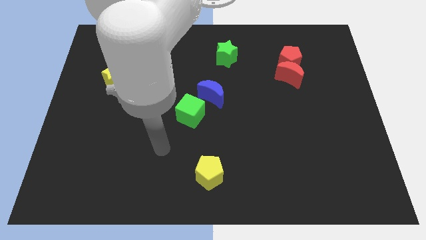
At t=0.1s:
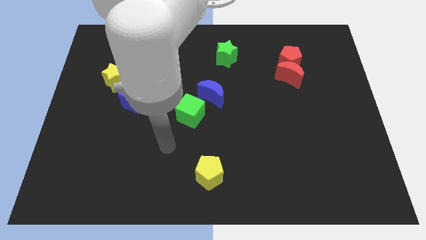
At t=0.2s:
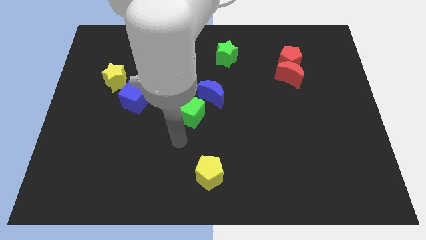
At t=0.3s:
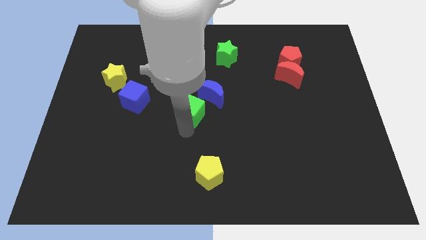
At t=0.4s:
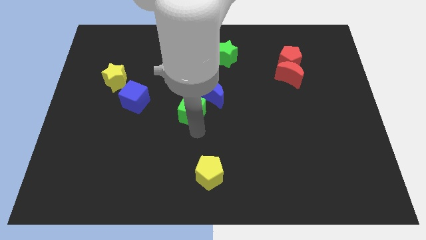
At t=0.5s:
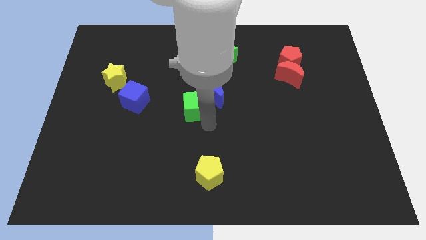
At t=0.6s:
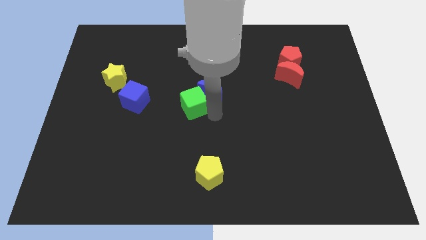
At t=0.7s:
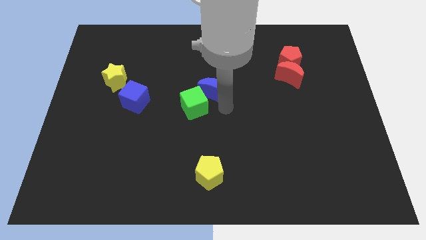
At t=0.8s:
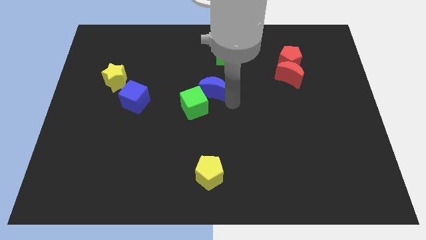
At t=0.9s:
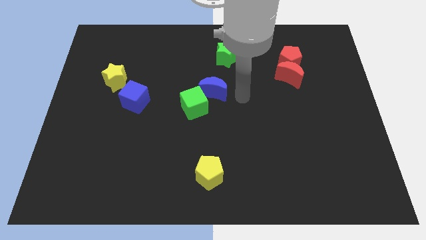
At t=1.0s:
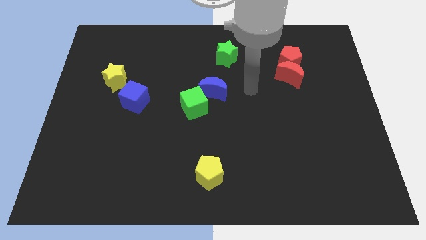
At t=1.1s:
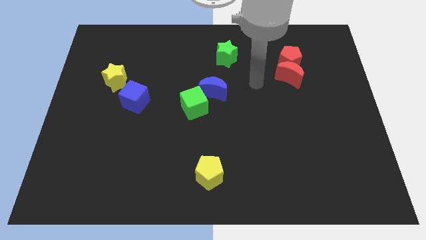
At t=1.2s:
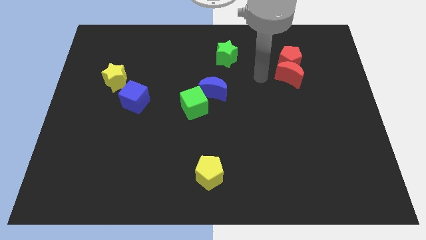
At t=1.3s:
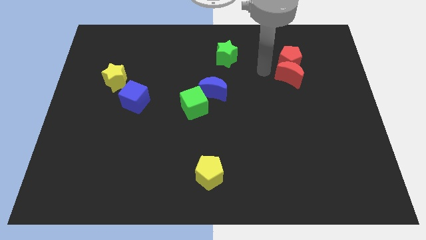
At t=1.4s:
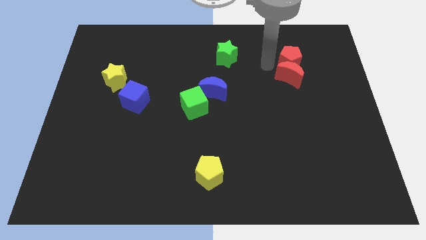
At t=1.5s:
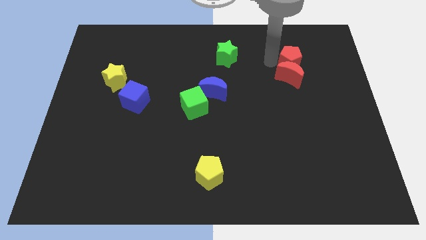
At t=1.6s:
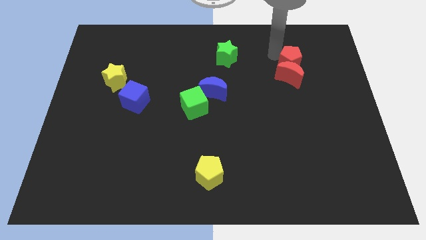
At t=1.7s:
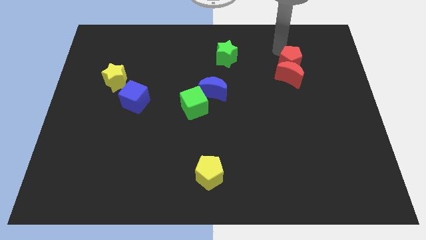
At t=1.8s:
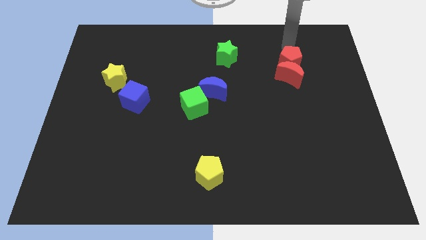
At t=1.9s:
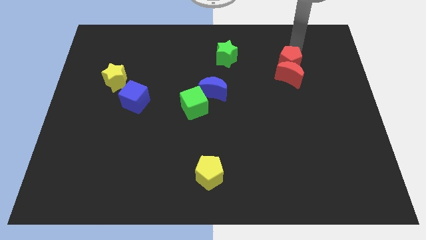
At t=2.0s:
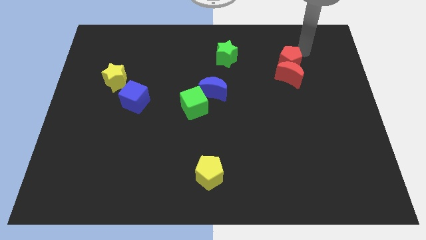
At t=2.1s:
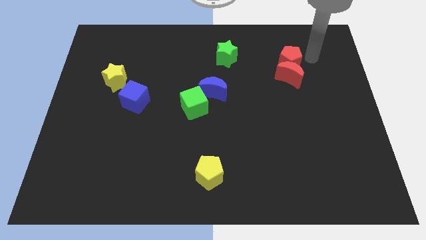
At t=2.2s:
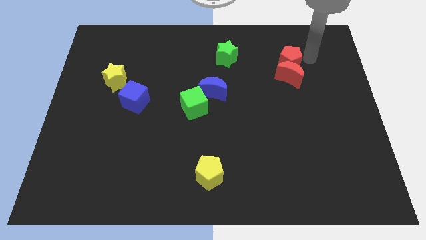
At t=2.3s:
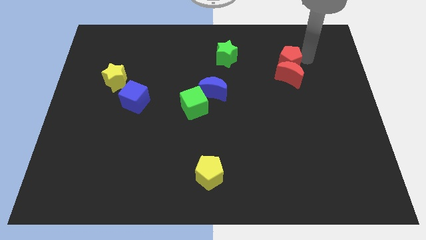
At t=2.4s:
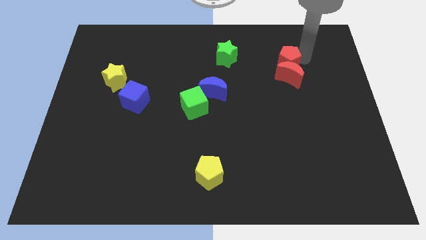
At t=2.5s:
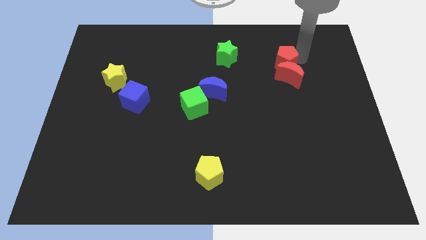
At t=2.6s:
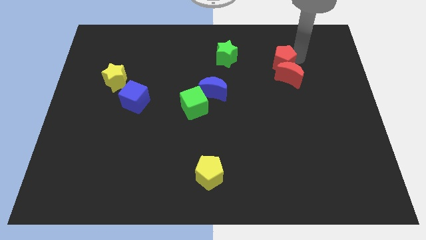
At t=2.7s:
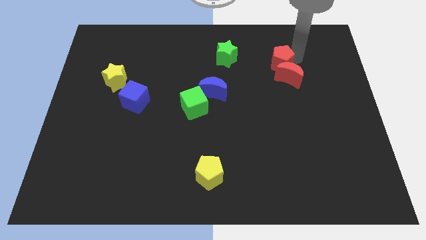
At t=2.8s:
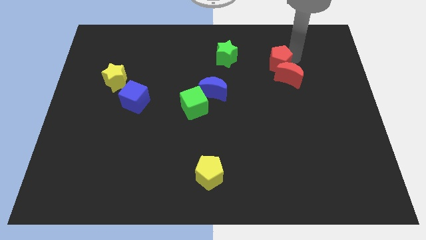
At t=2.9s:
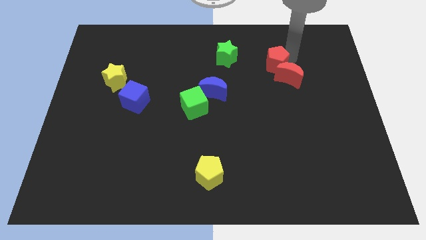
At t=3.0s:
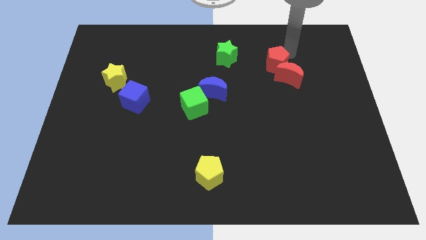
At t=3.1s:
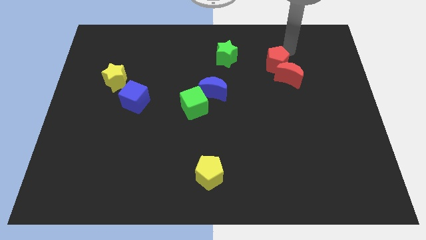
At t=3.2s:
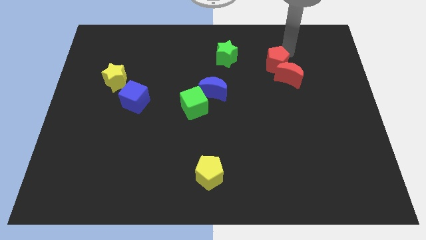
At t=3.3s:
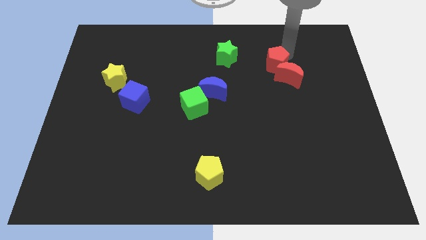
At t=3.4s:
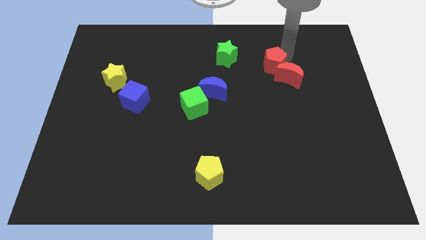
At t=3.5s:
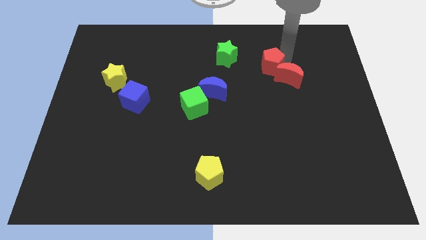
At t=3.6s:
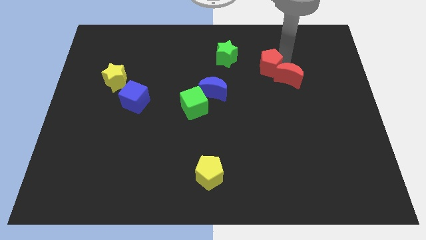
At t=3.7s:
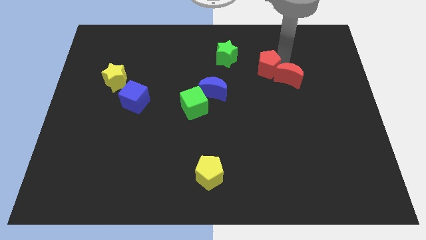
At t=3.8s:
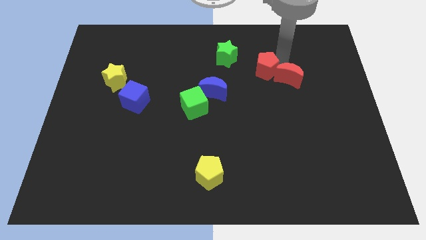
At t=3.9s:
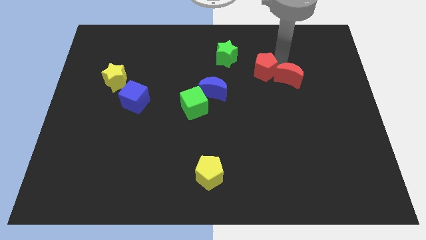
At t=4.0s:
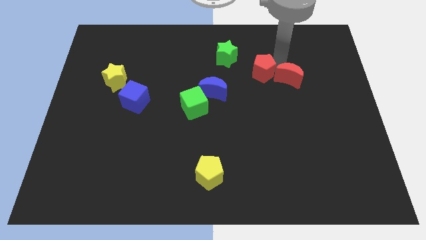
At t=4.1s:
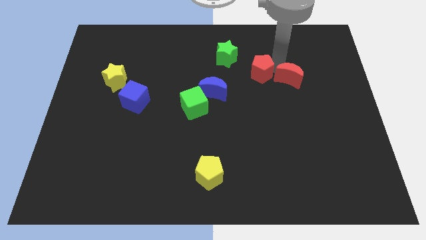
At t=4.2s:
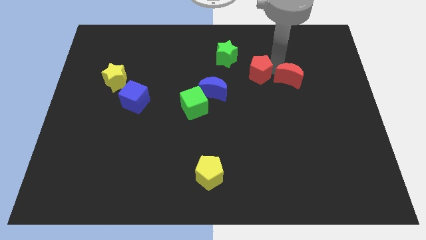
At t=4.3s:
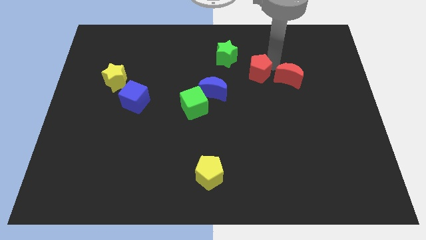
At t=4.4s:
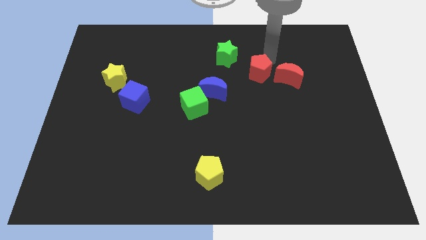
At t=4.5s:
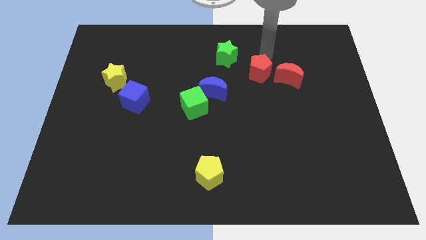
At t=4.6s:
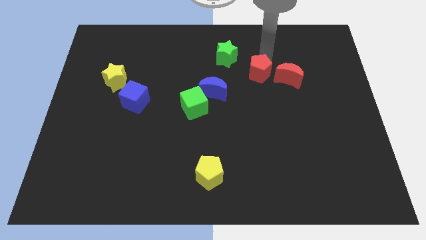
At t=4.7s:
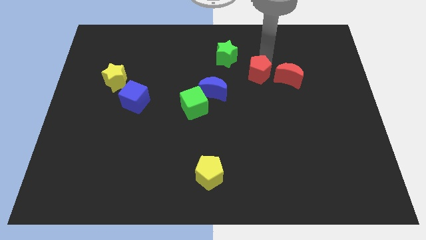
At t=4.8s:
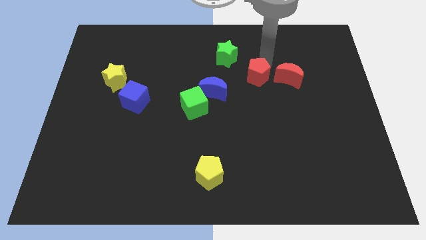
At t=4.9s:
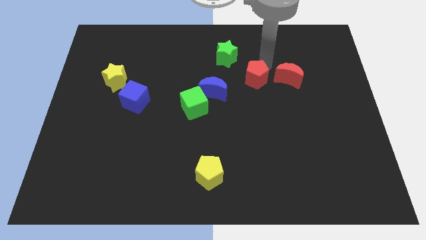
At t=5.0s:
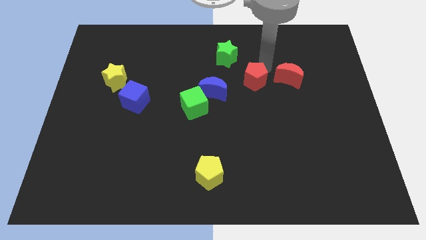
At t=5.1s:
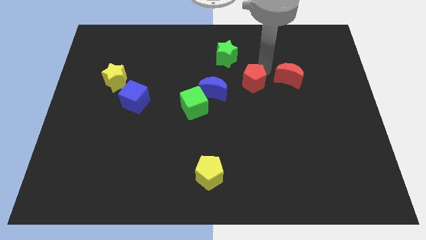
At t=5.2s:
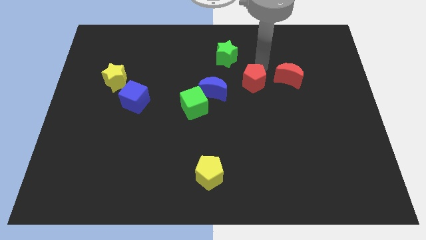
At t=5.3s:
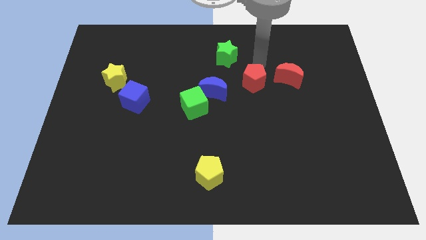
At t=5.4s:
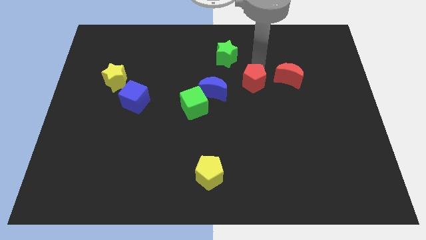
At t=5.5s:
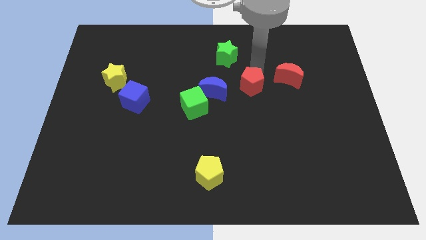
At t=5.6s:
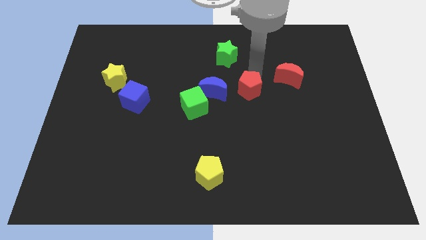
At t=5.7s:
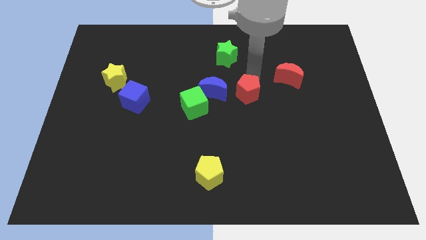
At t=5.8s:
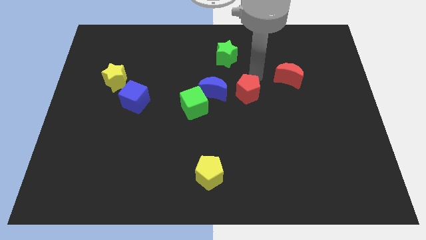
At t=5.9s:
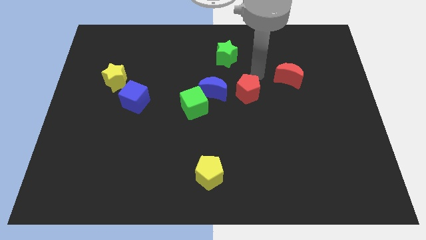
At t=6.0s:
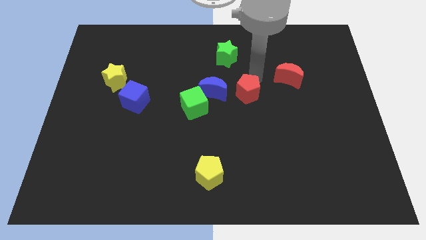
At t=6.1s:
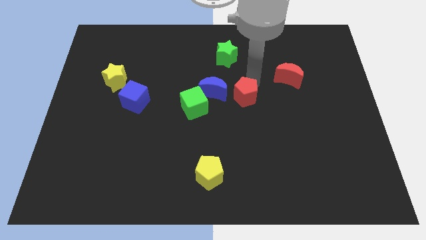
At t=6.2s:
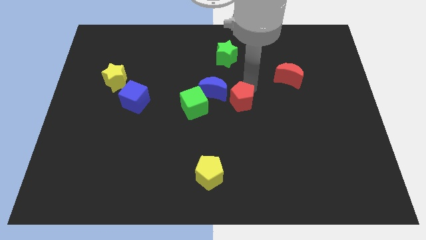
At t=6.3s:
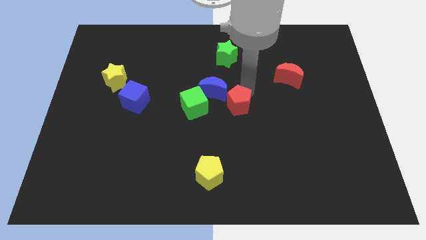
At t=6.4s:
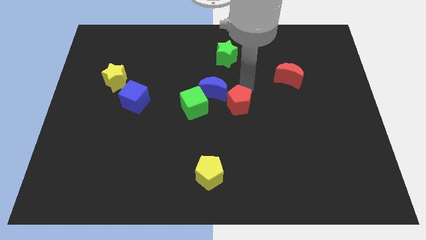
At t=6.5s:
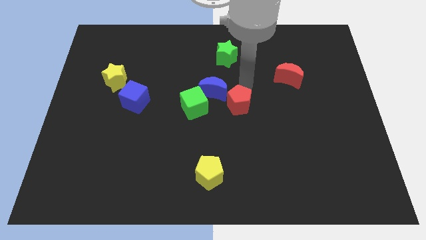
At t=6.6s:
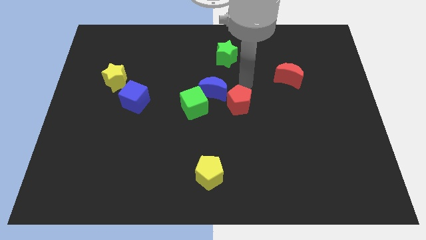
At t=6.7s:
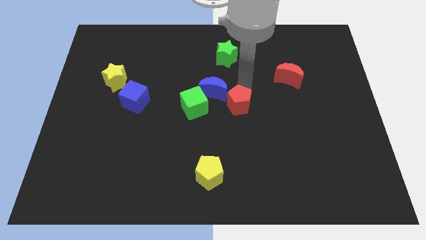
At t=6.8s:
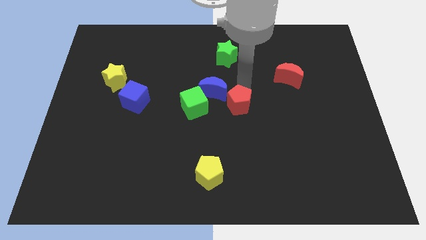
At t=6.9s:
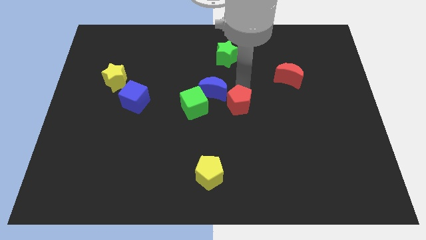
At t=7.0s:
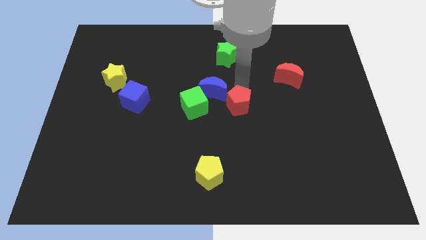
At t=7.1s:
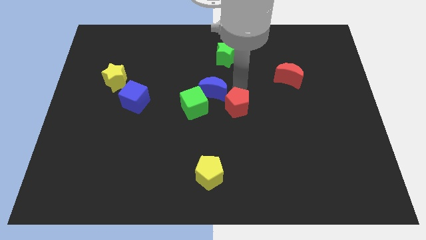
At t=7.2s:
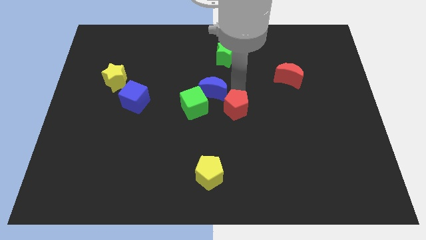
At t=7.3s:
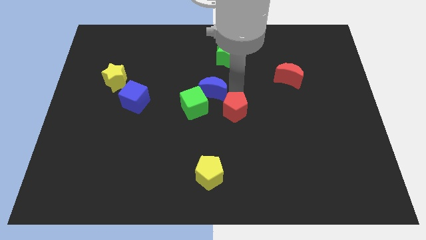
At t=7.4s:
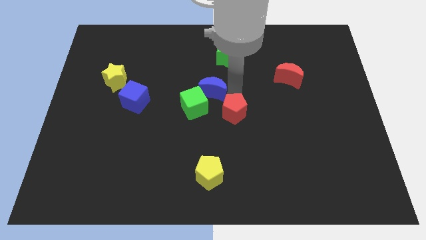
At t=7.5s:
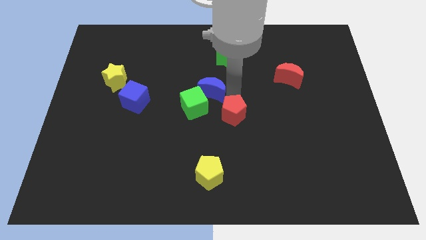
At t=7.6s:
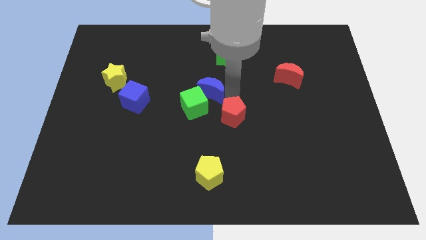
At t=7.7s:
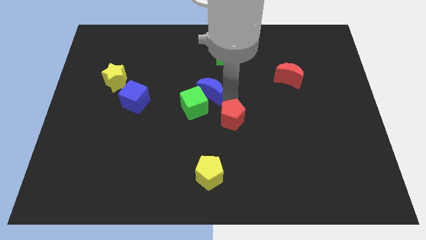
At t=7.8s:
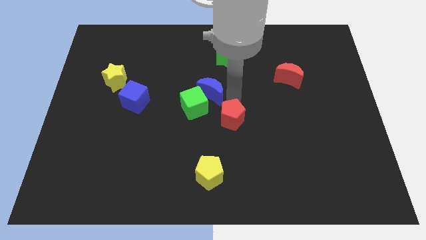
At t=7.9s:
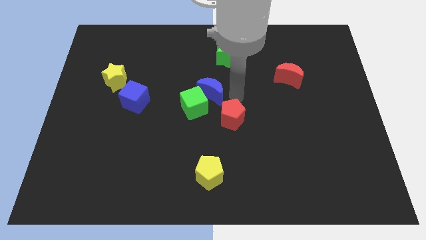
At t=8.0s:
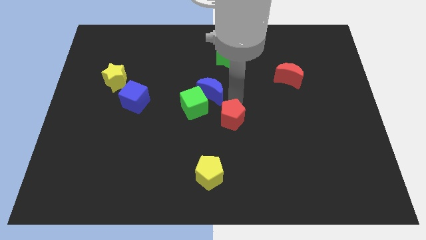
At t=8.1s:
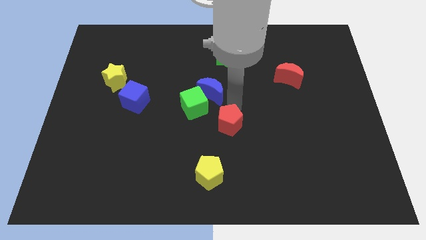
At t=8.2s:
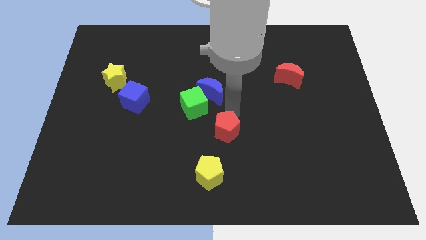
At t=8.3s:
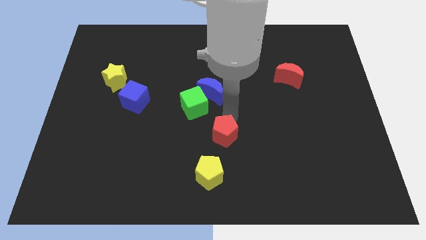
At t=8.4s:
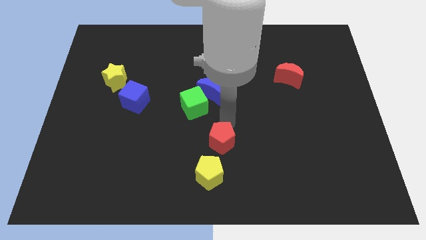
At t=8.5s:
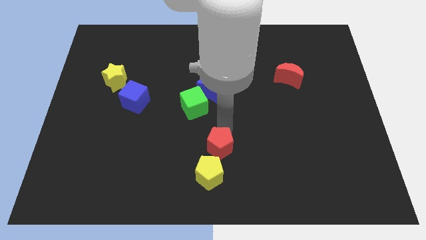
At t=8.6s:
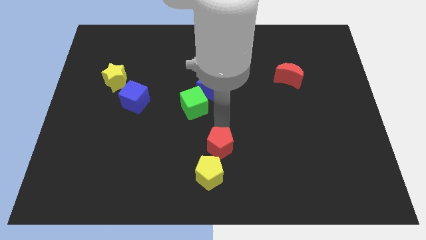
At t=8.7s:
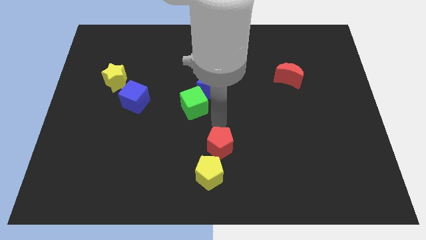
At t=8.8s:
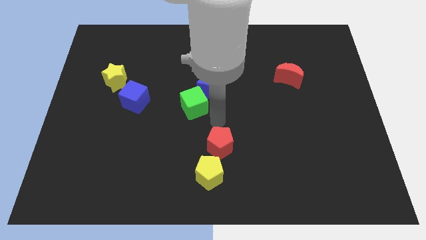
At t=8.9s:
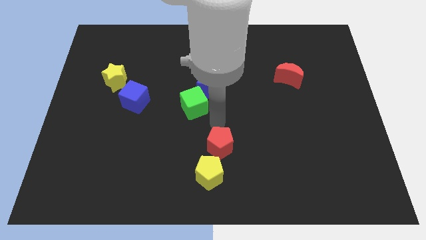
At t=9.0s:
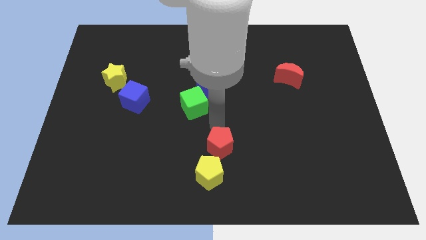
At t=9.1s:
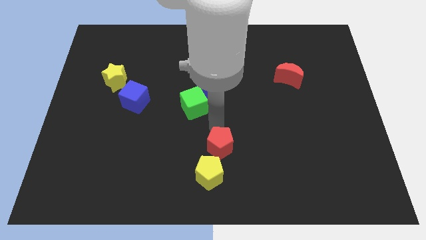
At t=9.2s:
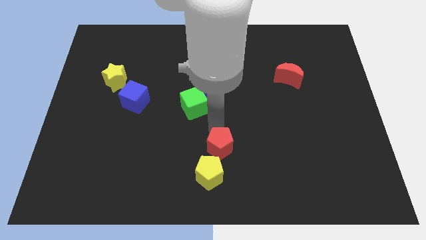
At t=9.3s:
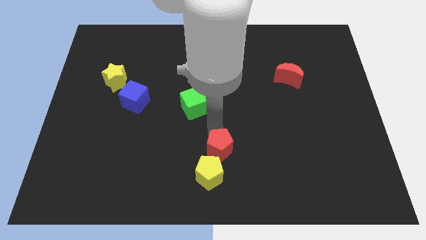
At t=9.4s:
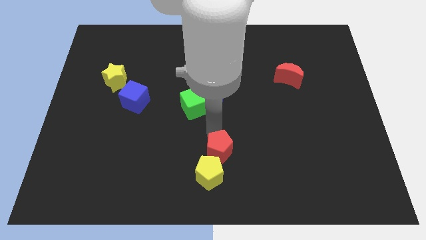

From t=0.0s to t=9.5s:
put the red pentagon to the yellow pentagon
